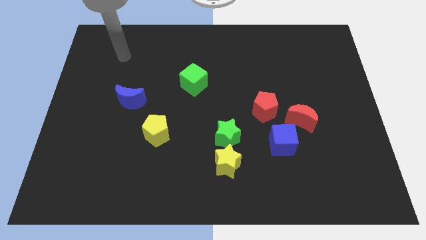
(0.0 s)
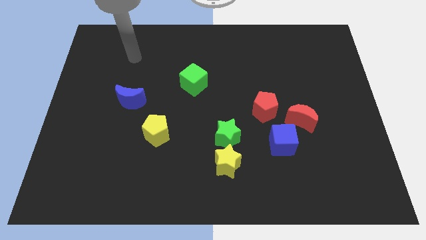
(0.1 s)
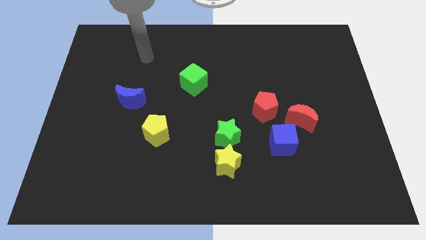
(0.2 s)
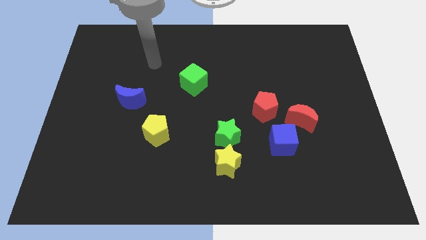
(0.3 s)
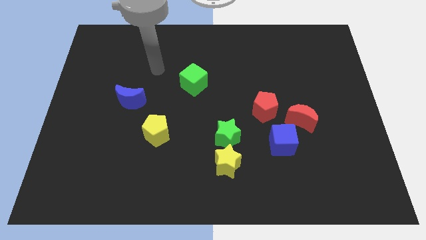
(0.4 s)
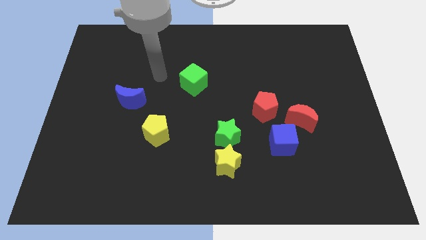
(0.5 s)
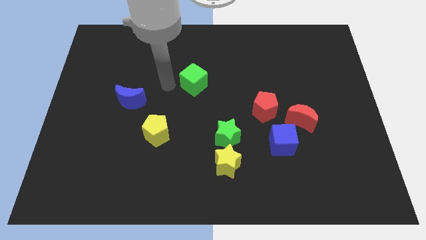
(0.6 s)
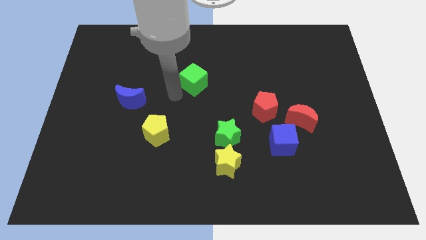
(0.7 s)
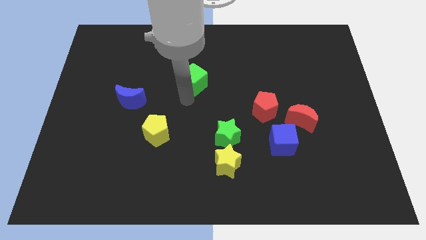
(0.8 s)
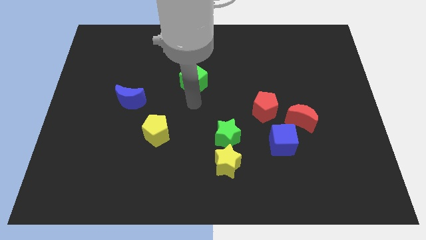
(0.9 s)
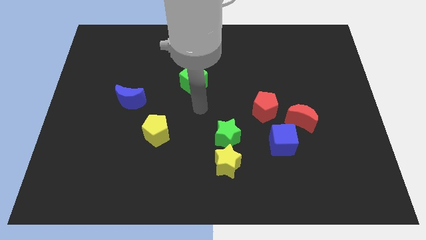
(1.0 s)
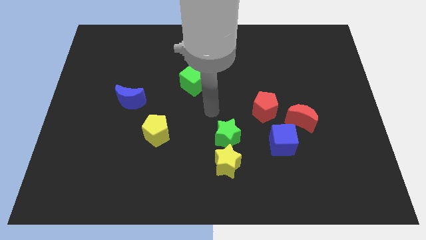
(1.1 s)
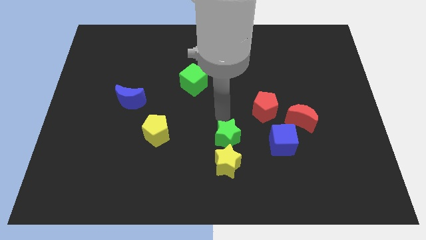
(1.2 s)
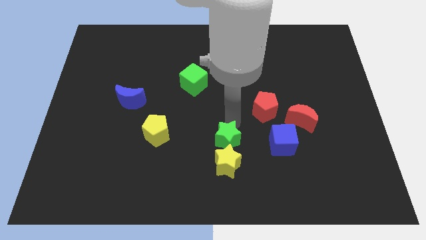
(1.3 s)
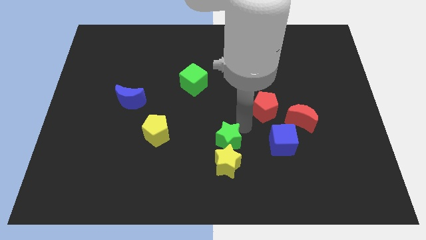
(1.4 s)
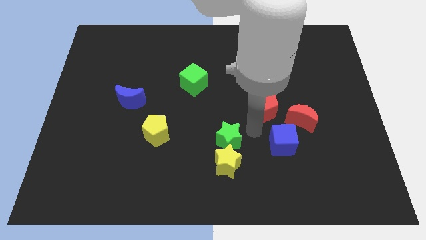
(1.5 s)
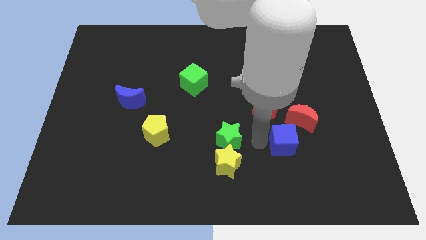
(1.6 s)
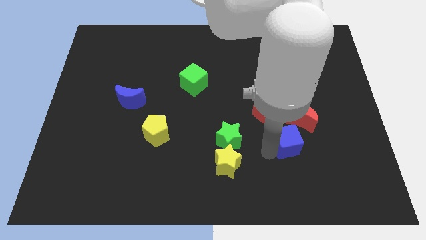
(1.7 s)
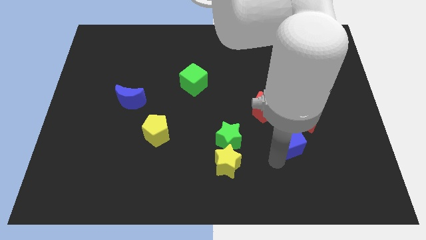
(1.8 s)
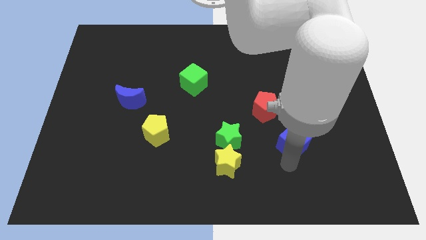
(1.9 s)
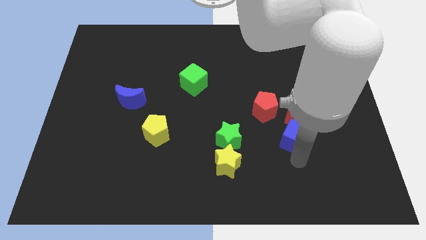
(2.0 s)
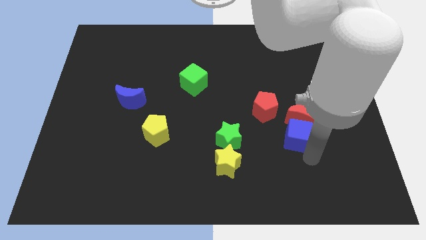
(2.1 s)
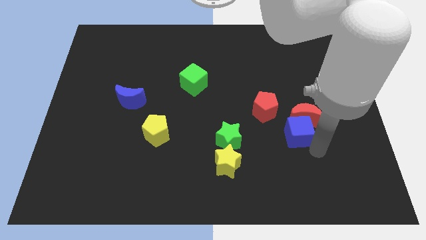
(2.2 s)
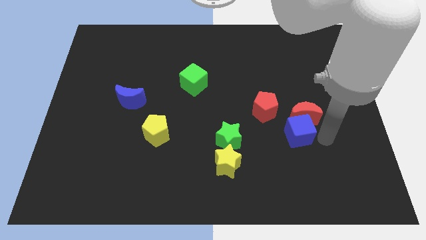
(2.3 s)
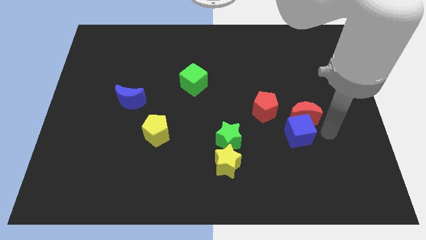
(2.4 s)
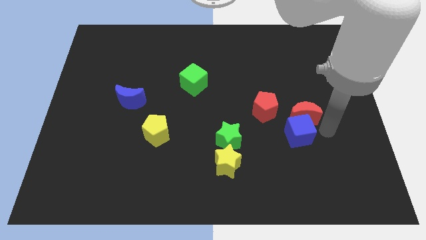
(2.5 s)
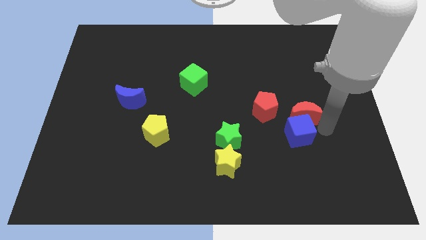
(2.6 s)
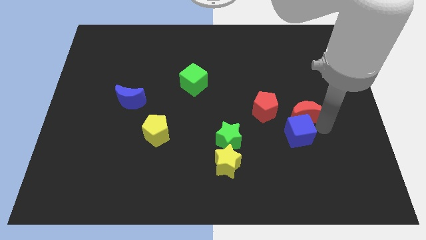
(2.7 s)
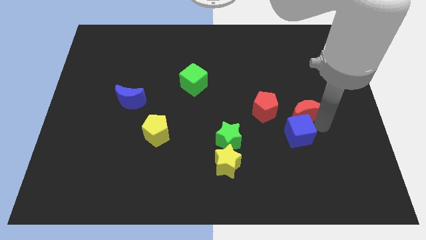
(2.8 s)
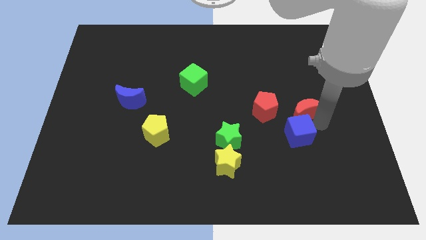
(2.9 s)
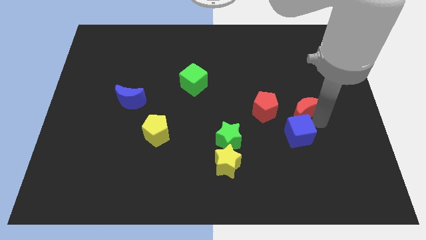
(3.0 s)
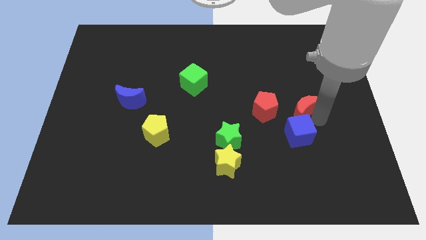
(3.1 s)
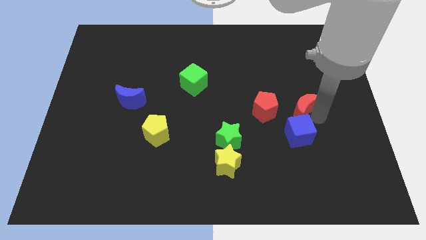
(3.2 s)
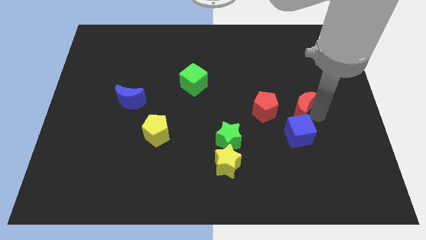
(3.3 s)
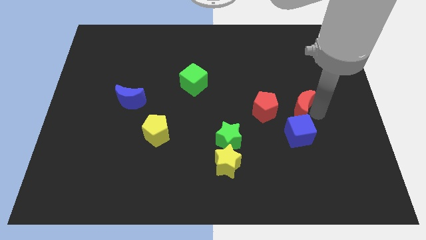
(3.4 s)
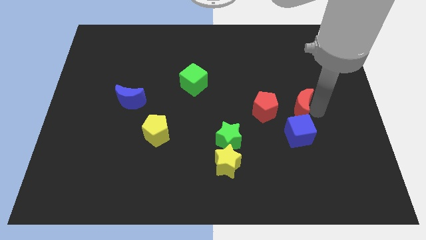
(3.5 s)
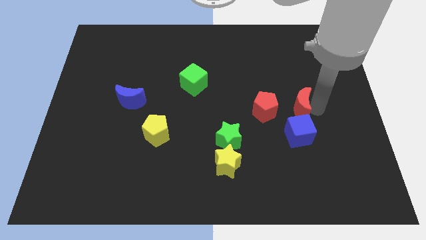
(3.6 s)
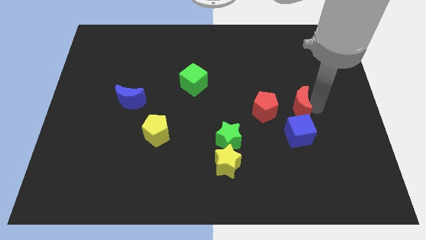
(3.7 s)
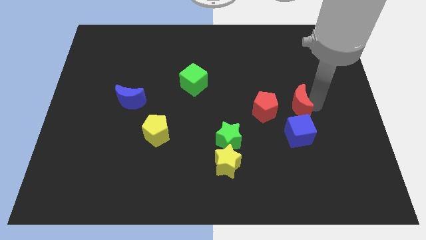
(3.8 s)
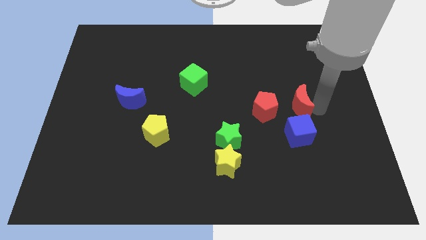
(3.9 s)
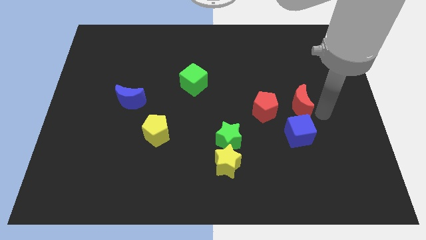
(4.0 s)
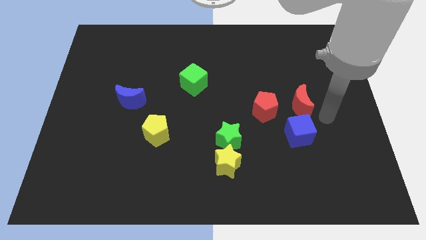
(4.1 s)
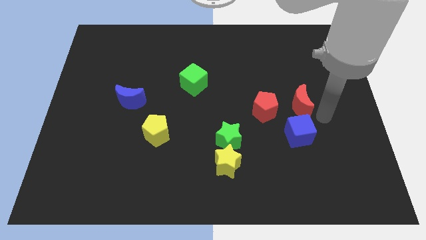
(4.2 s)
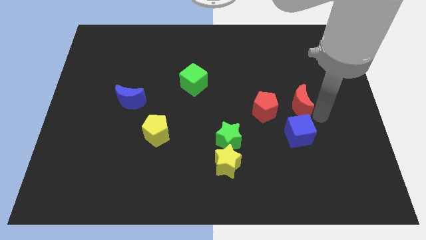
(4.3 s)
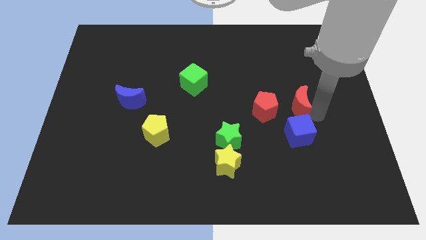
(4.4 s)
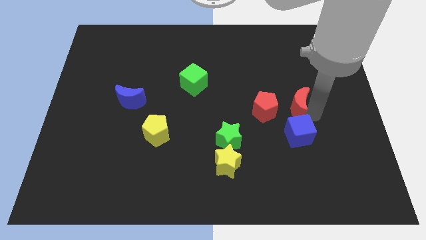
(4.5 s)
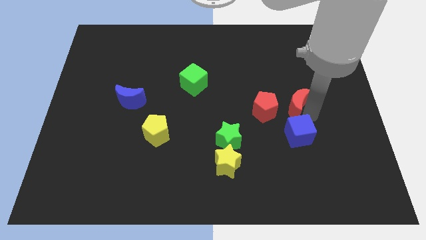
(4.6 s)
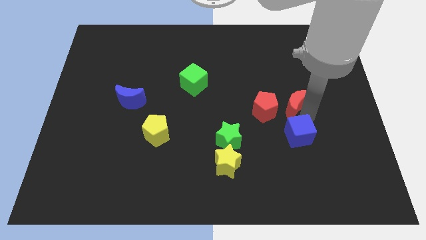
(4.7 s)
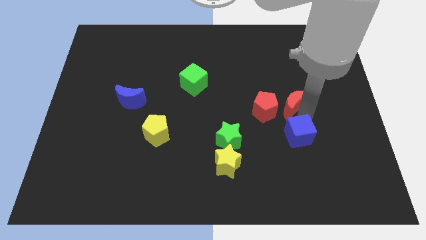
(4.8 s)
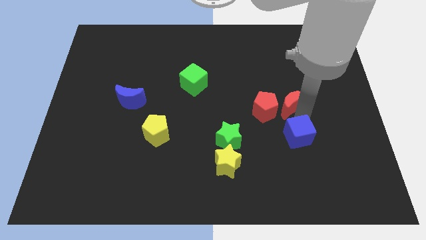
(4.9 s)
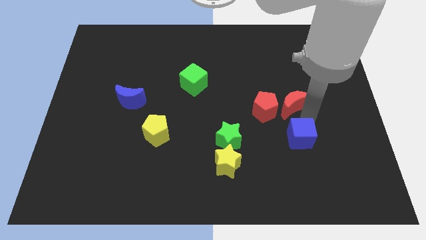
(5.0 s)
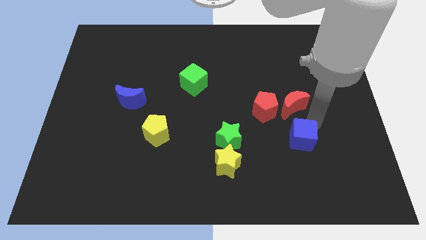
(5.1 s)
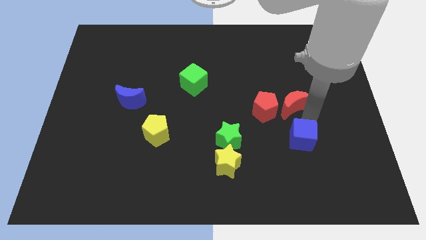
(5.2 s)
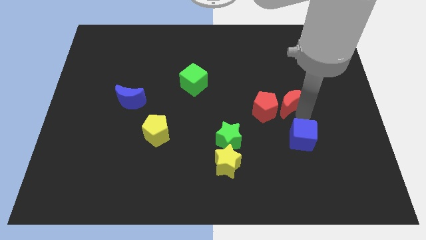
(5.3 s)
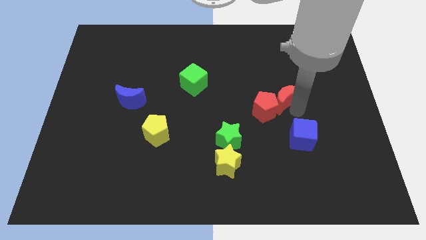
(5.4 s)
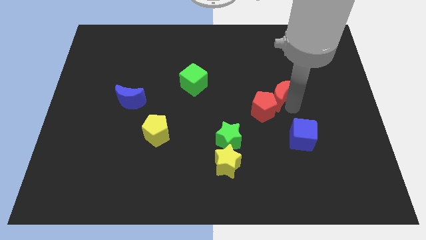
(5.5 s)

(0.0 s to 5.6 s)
slide the red moon up and then left a little

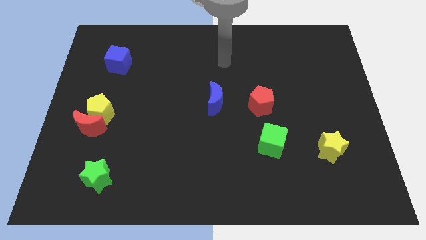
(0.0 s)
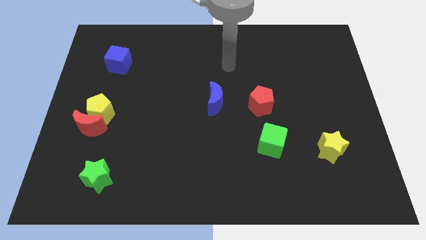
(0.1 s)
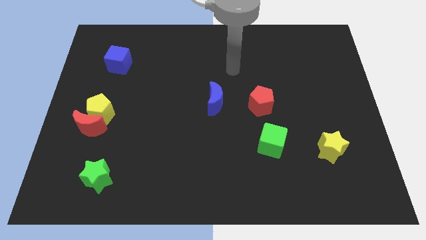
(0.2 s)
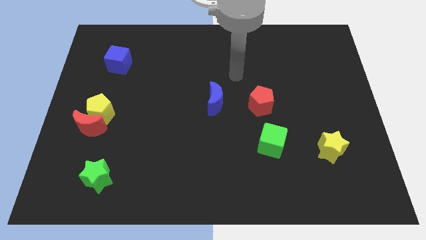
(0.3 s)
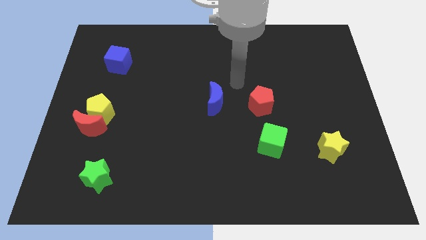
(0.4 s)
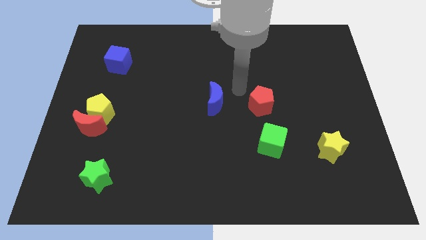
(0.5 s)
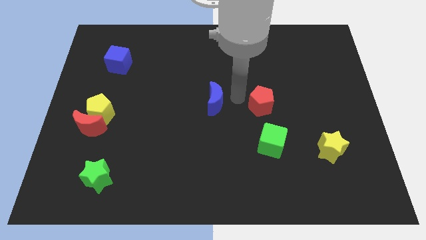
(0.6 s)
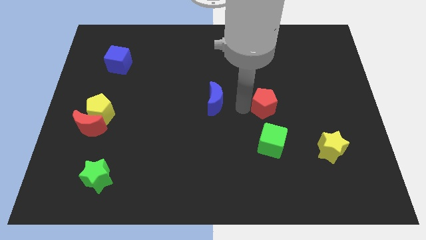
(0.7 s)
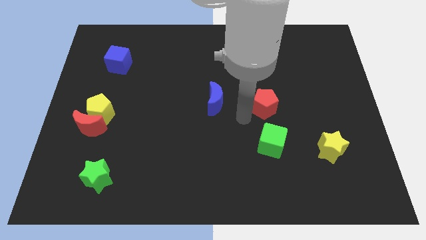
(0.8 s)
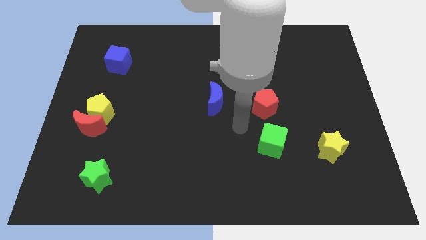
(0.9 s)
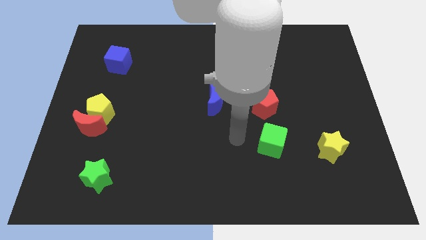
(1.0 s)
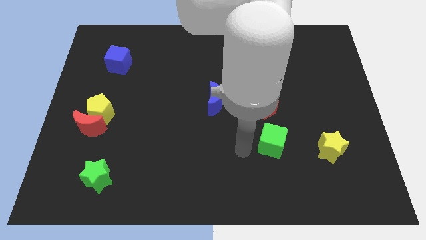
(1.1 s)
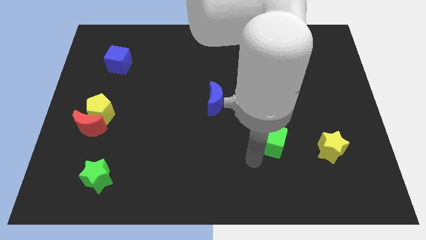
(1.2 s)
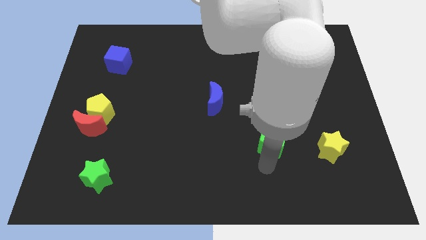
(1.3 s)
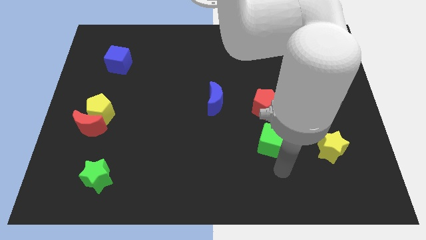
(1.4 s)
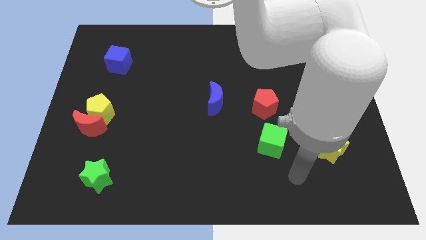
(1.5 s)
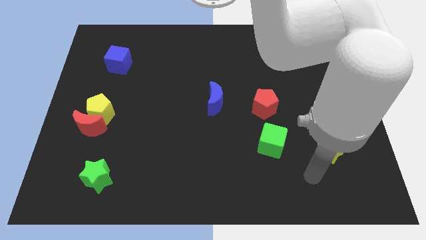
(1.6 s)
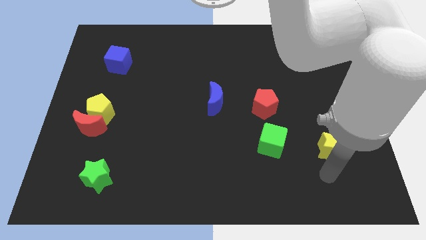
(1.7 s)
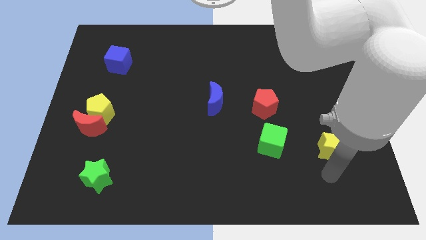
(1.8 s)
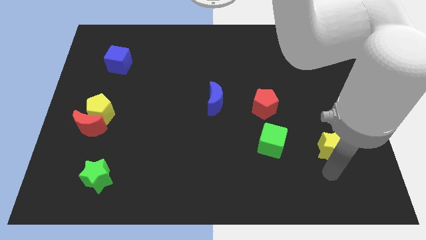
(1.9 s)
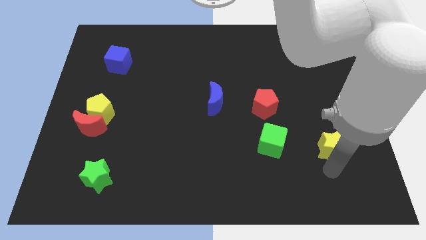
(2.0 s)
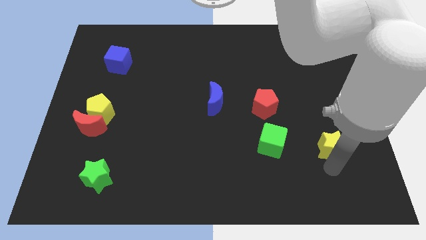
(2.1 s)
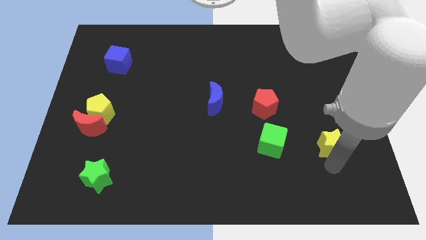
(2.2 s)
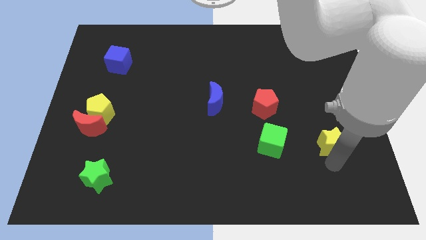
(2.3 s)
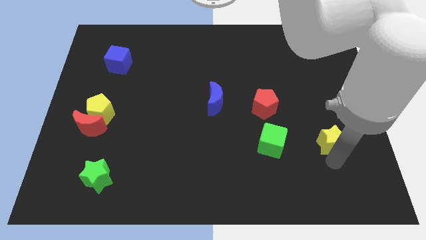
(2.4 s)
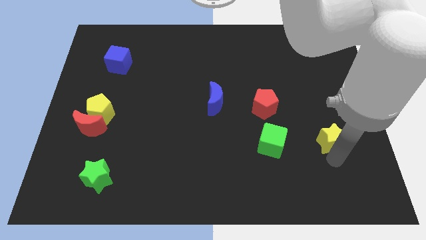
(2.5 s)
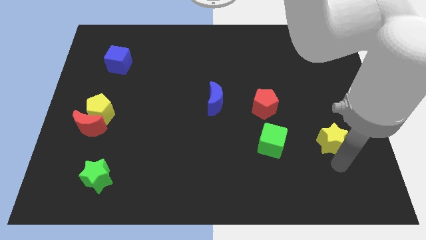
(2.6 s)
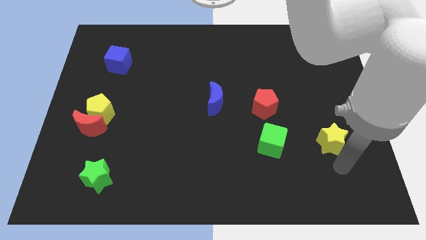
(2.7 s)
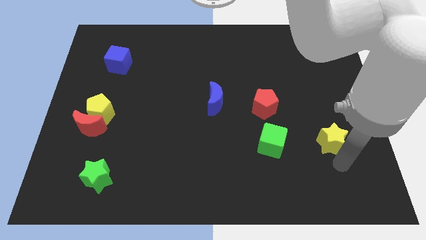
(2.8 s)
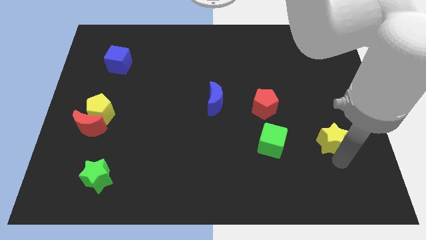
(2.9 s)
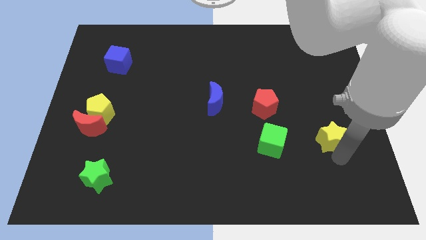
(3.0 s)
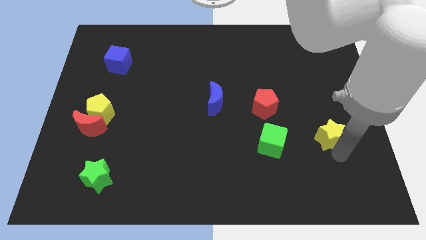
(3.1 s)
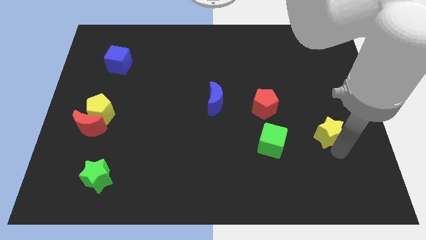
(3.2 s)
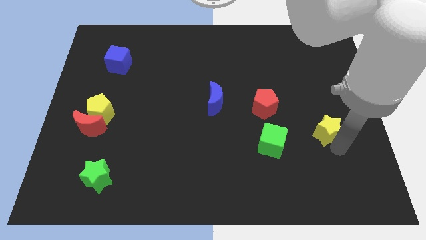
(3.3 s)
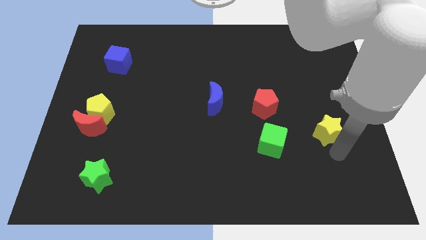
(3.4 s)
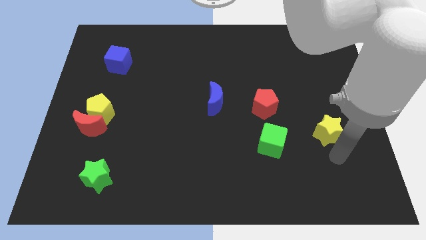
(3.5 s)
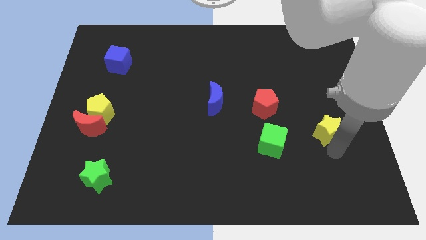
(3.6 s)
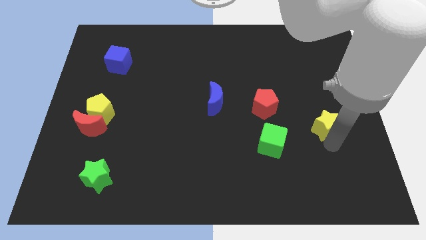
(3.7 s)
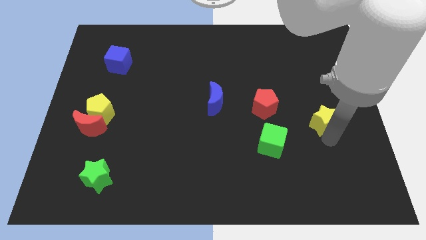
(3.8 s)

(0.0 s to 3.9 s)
slide the yellow star somewhat upwards
